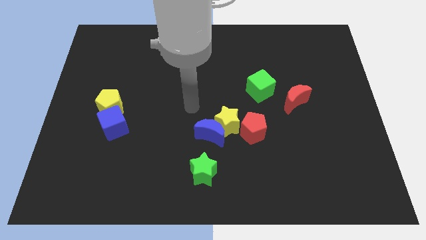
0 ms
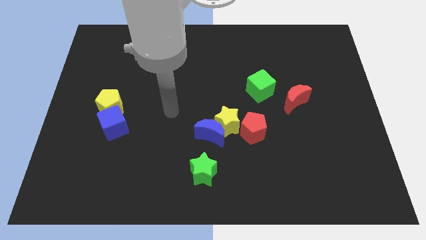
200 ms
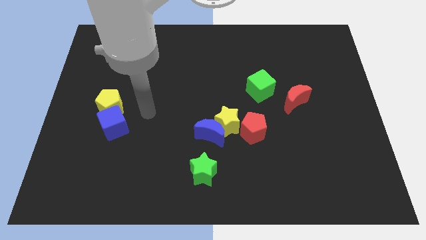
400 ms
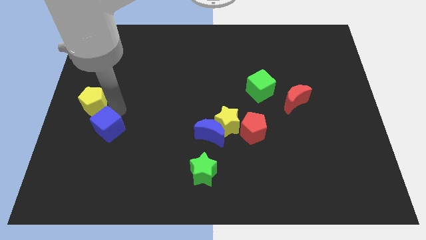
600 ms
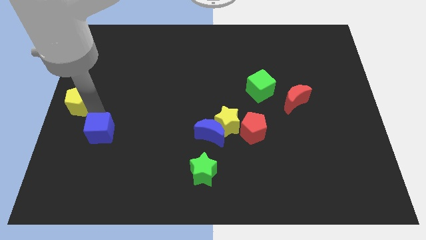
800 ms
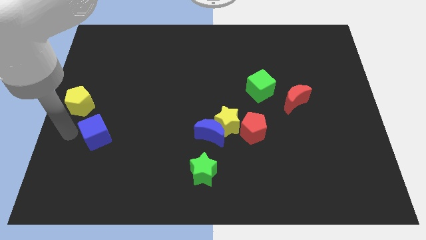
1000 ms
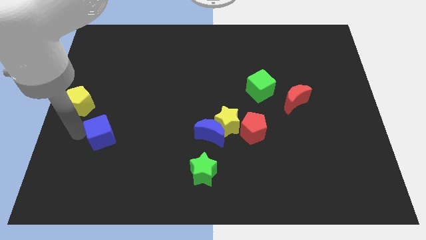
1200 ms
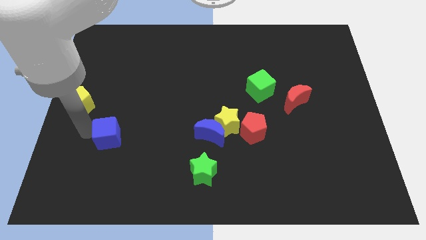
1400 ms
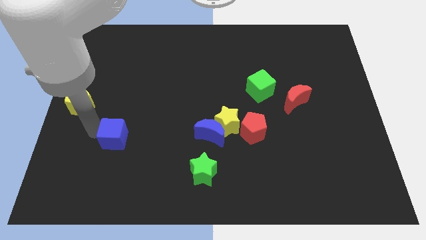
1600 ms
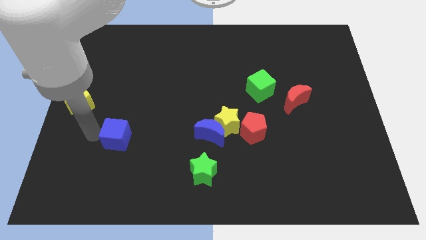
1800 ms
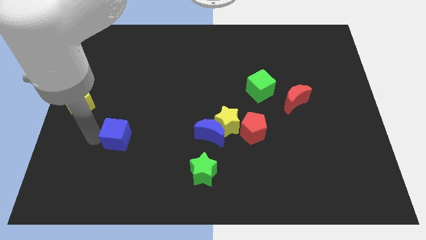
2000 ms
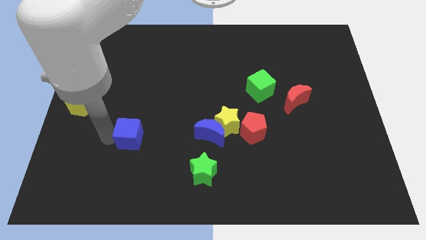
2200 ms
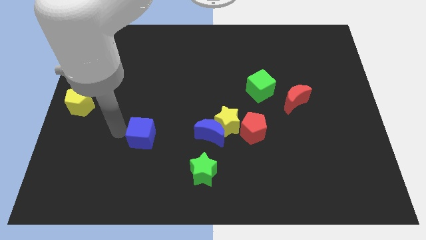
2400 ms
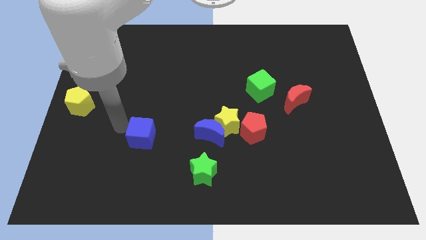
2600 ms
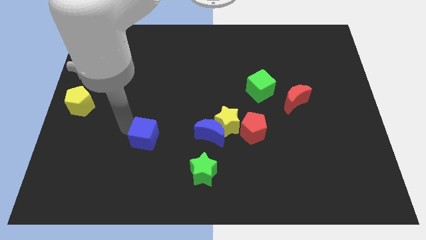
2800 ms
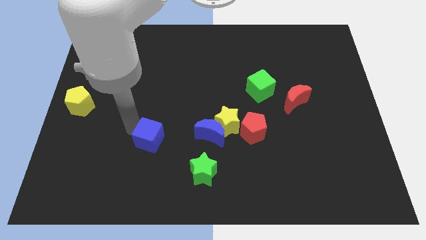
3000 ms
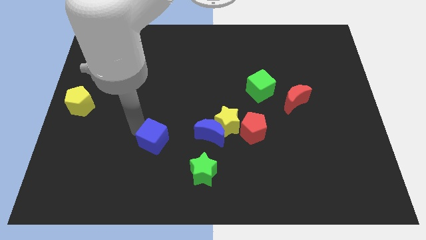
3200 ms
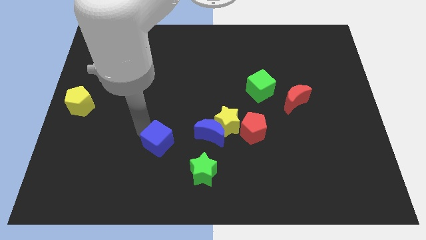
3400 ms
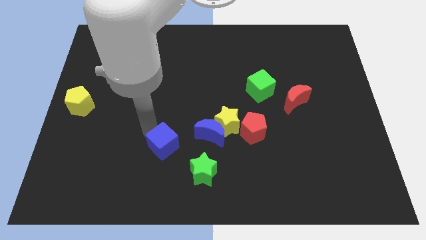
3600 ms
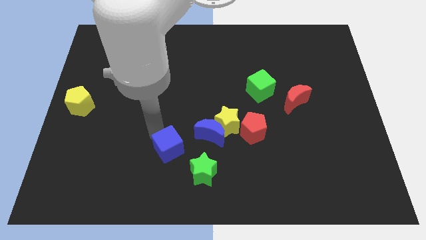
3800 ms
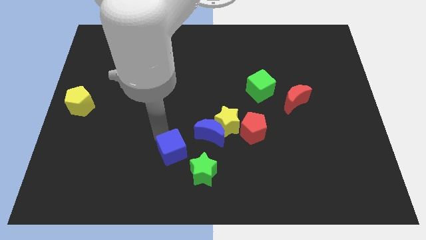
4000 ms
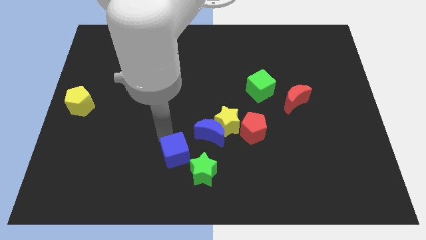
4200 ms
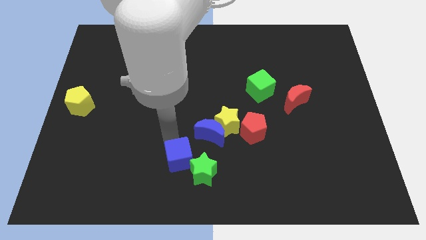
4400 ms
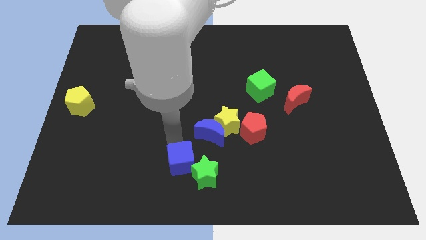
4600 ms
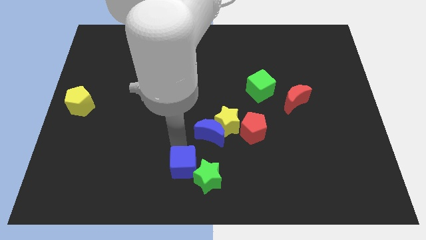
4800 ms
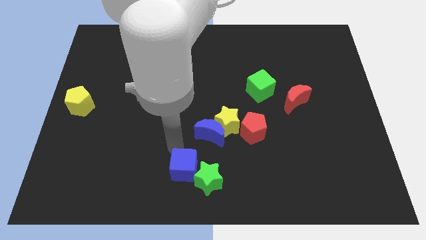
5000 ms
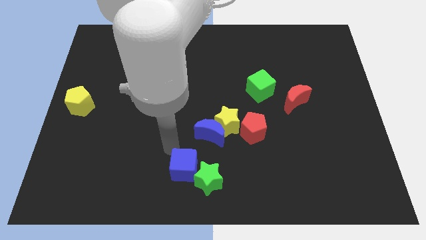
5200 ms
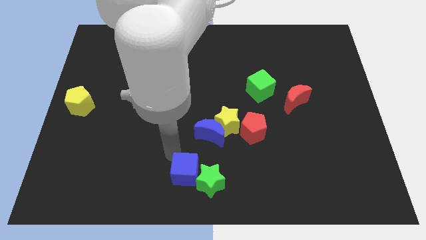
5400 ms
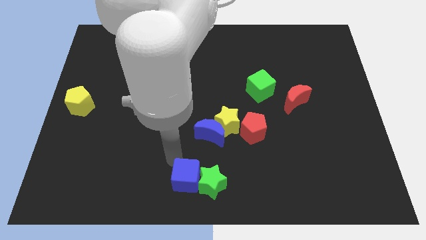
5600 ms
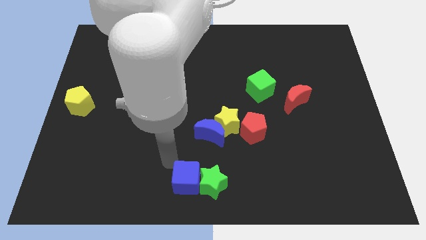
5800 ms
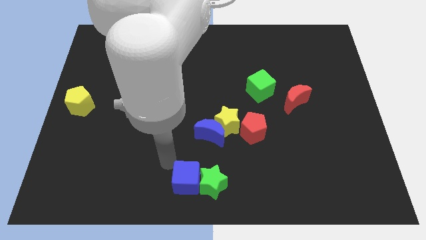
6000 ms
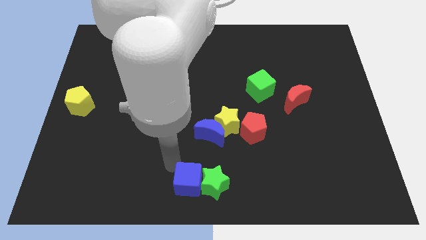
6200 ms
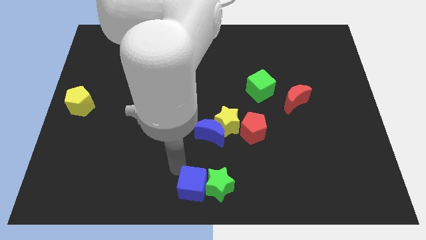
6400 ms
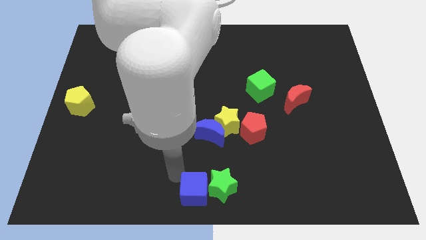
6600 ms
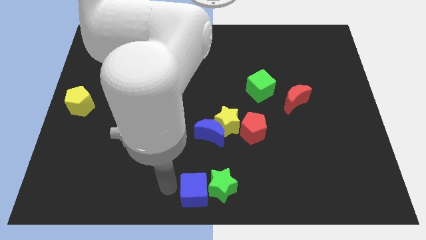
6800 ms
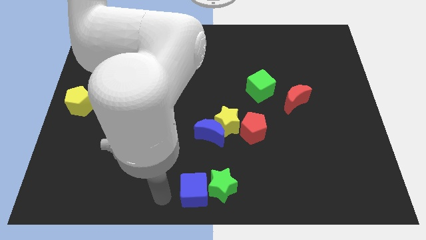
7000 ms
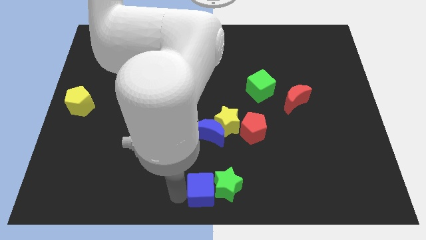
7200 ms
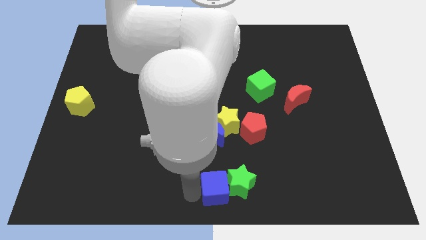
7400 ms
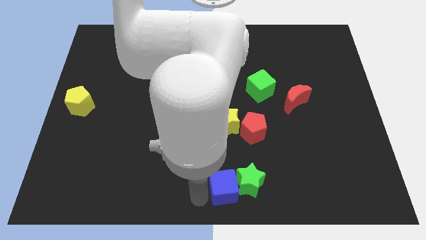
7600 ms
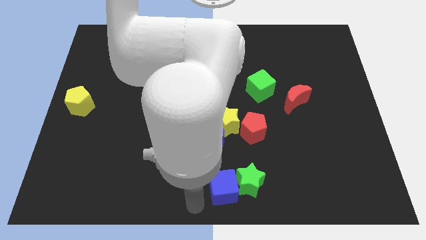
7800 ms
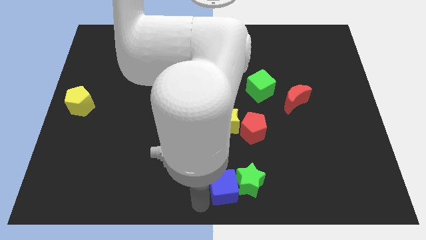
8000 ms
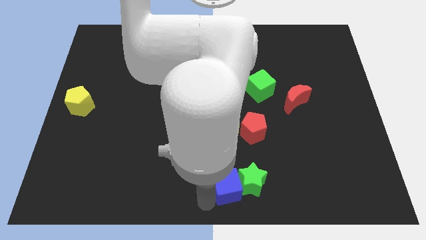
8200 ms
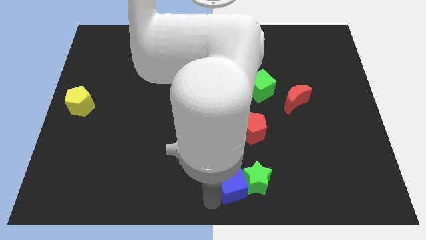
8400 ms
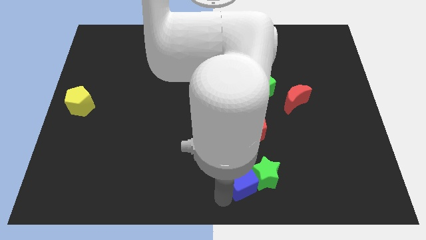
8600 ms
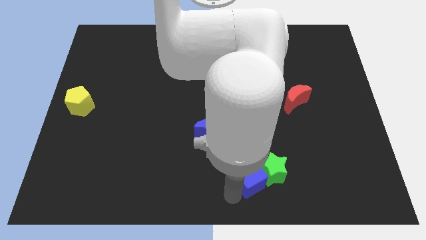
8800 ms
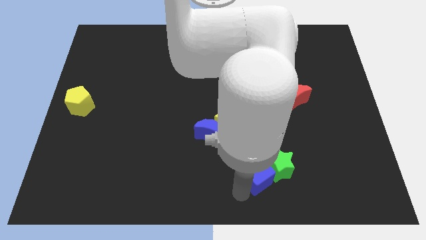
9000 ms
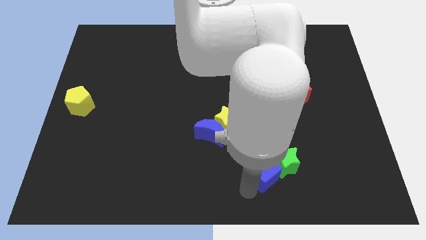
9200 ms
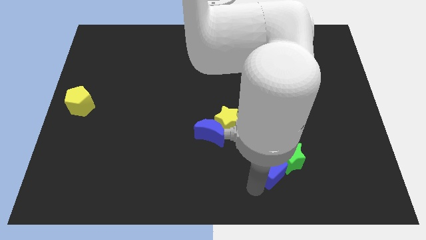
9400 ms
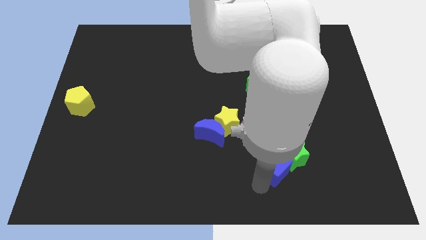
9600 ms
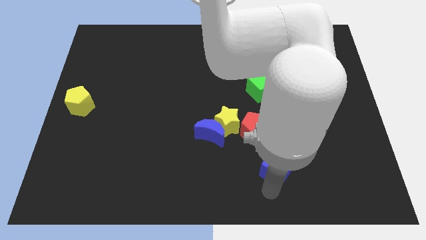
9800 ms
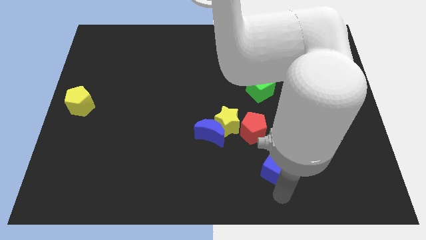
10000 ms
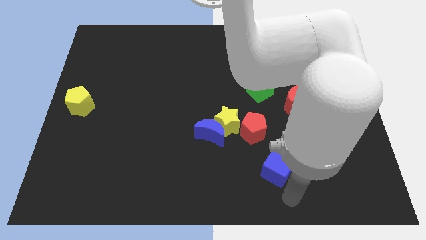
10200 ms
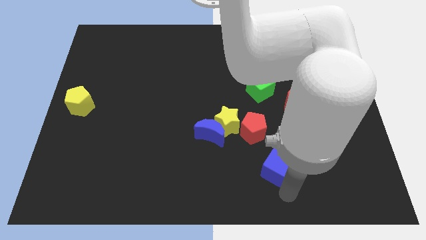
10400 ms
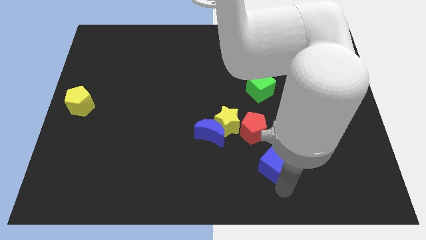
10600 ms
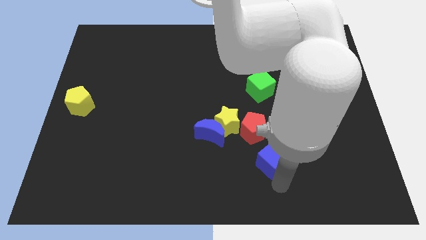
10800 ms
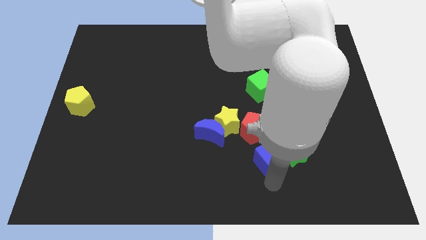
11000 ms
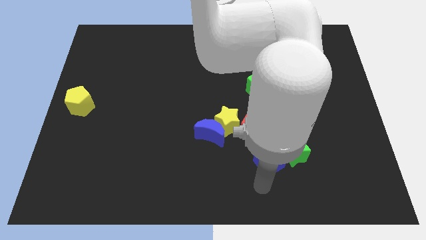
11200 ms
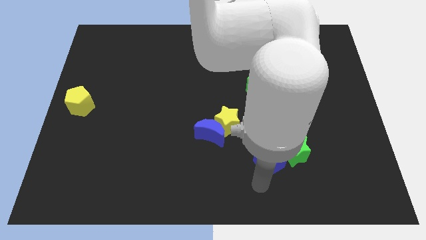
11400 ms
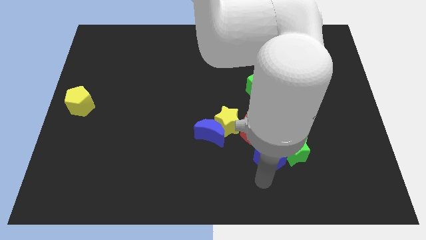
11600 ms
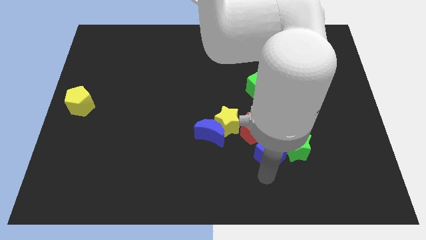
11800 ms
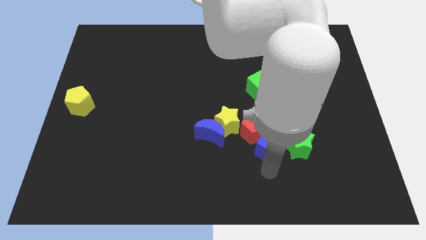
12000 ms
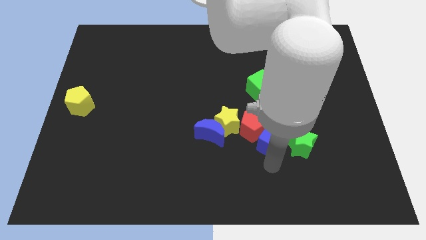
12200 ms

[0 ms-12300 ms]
slide the blue cube just right of the yellow star
